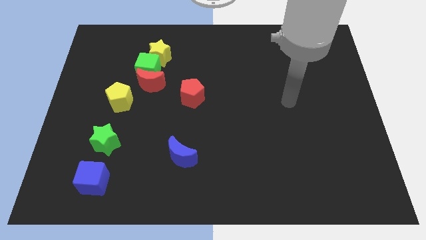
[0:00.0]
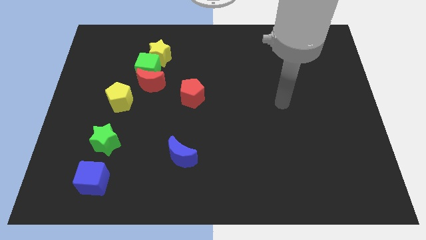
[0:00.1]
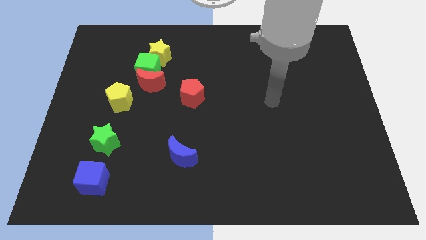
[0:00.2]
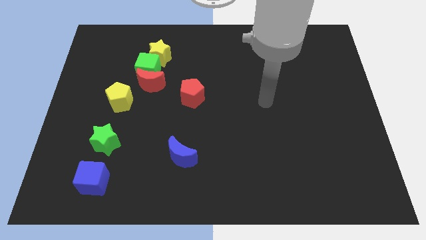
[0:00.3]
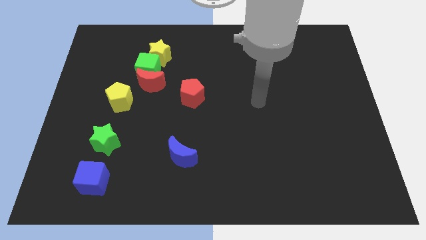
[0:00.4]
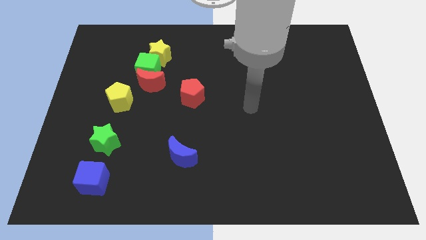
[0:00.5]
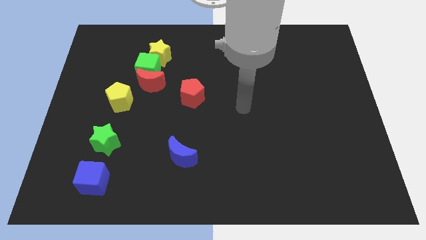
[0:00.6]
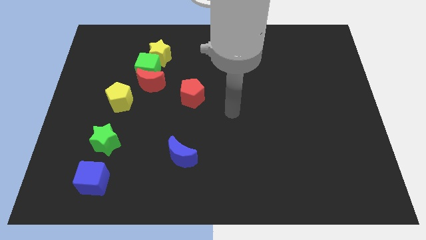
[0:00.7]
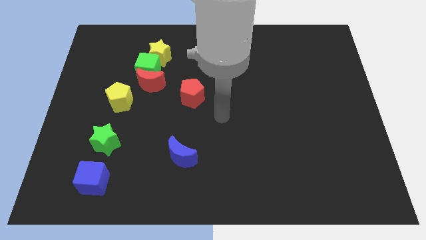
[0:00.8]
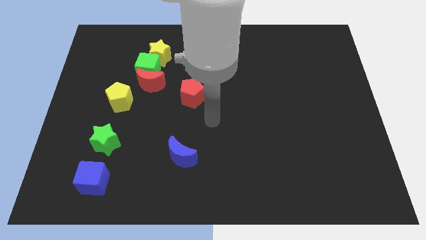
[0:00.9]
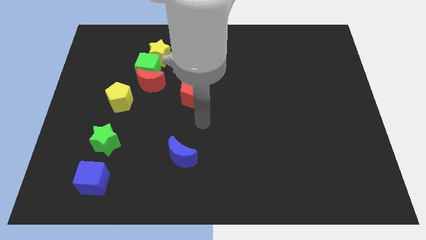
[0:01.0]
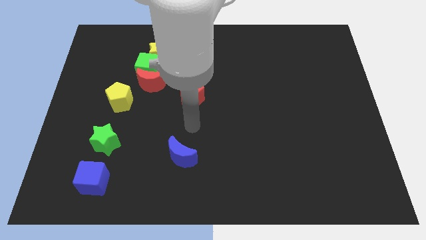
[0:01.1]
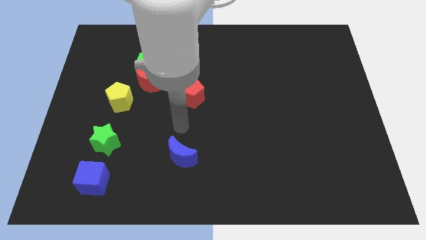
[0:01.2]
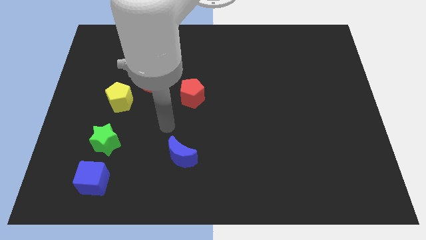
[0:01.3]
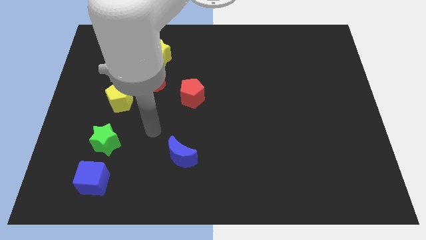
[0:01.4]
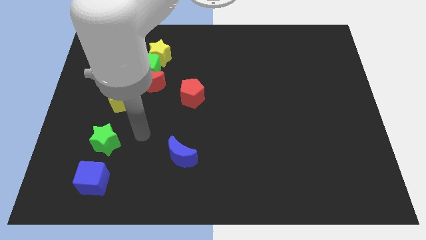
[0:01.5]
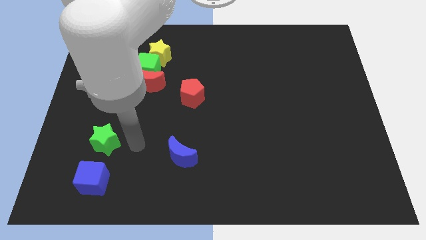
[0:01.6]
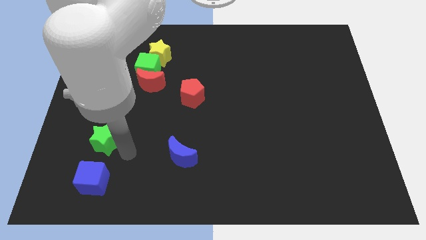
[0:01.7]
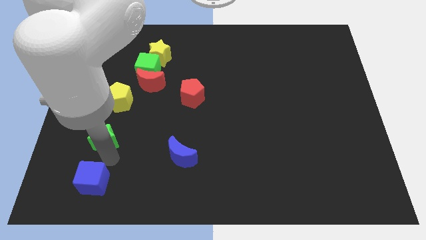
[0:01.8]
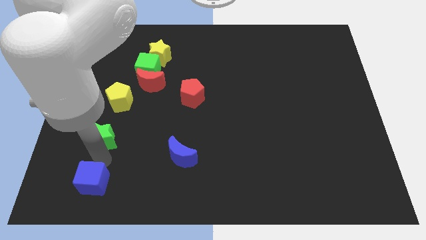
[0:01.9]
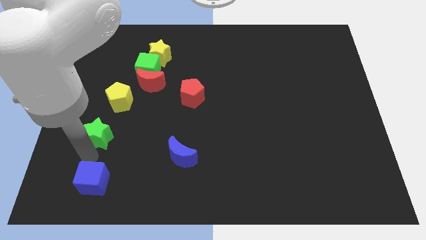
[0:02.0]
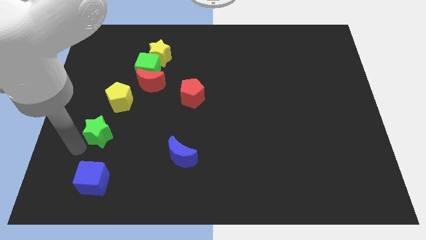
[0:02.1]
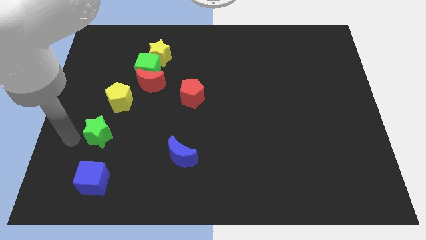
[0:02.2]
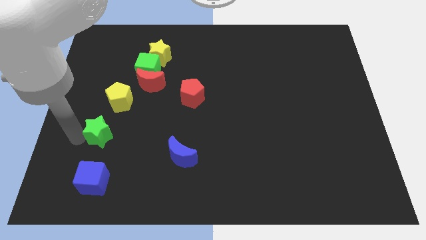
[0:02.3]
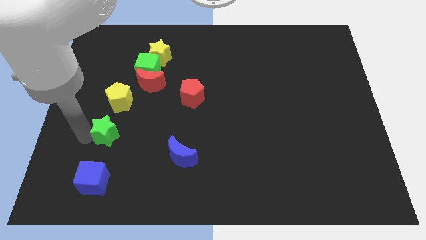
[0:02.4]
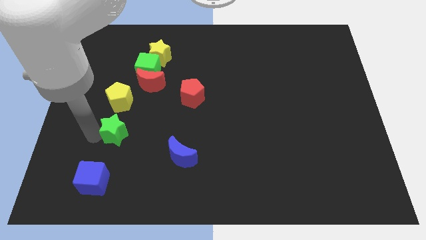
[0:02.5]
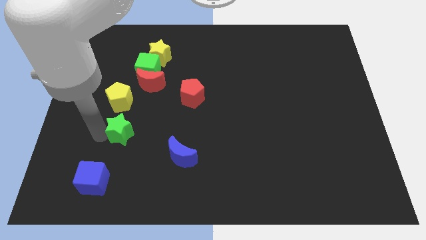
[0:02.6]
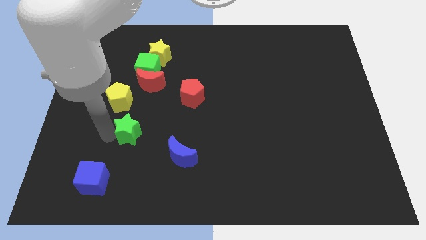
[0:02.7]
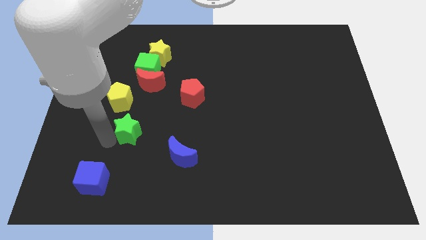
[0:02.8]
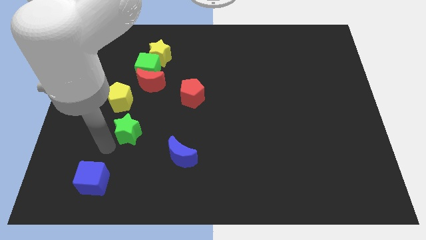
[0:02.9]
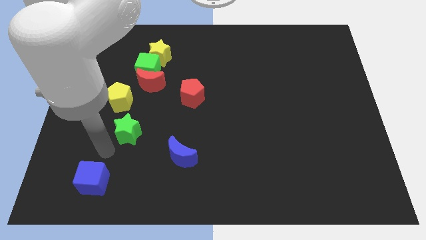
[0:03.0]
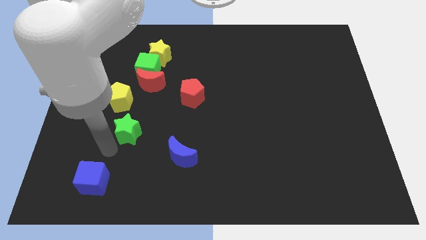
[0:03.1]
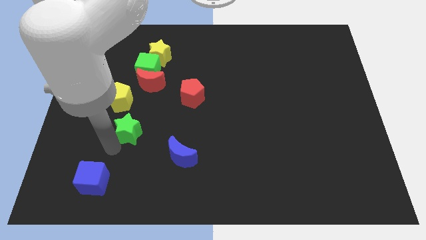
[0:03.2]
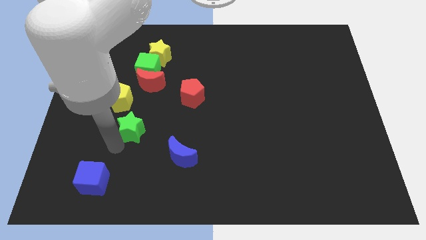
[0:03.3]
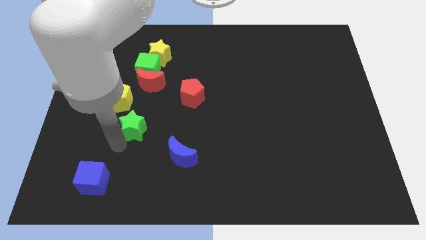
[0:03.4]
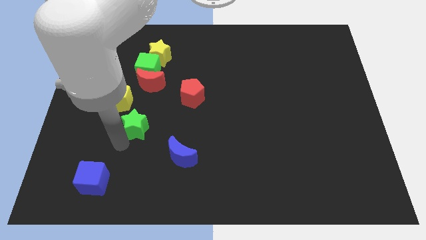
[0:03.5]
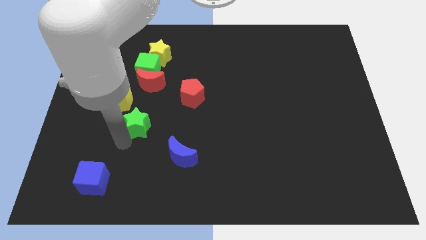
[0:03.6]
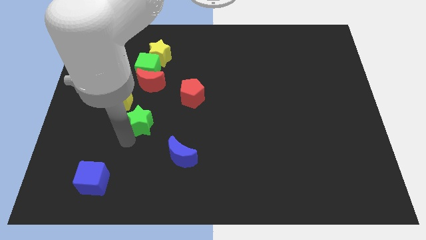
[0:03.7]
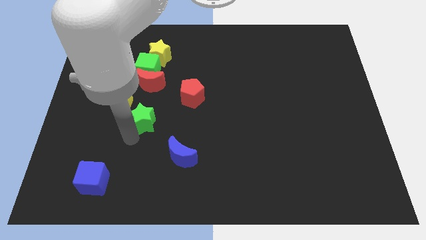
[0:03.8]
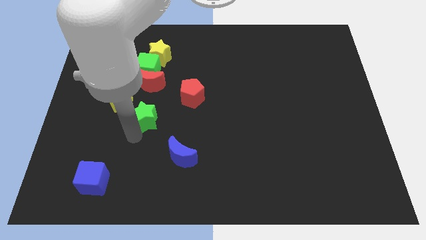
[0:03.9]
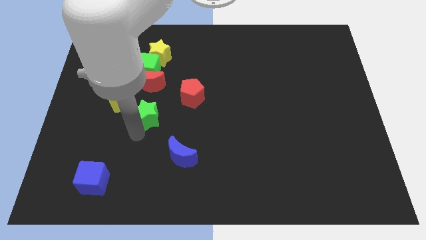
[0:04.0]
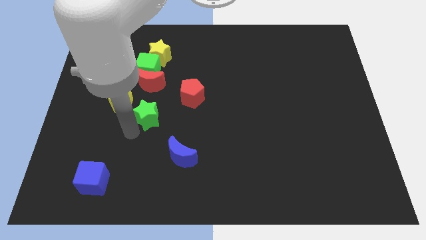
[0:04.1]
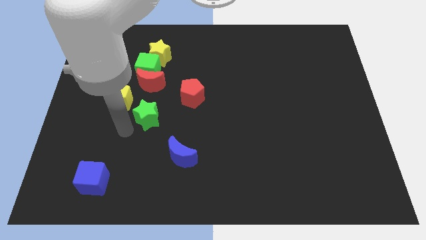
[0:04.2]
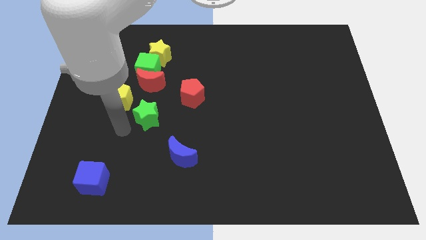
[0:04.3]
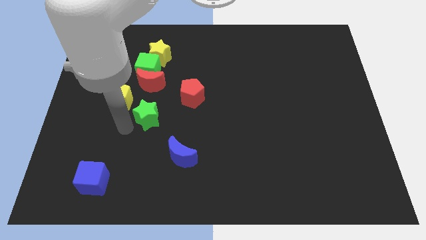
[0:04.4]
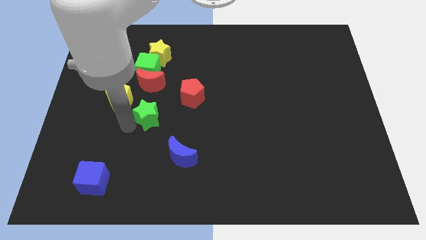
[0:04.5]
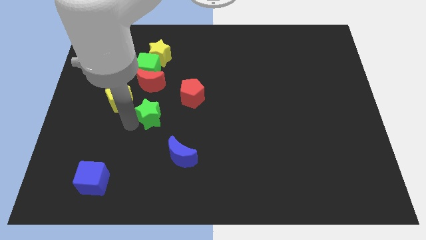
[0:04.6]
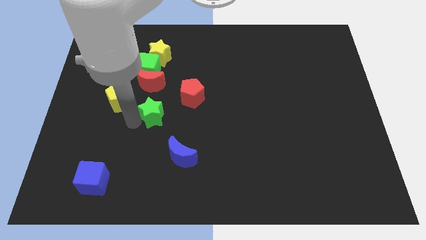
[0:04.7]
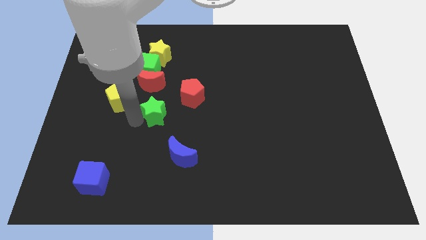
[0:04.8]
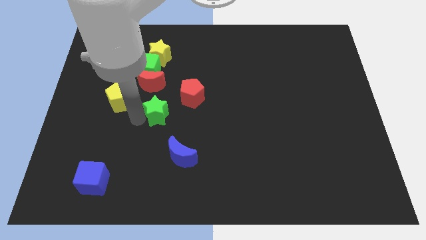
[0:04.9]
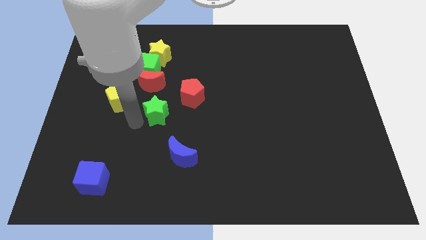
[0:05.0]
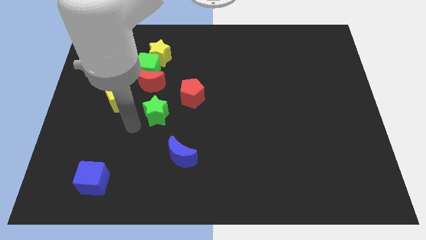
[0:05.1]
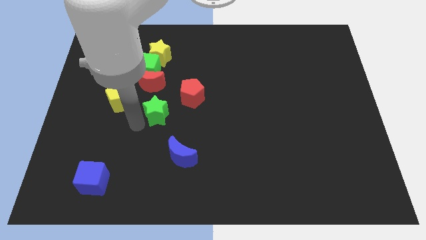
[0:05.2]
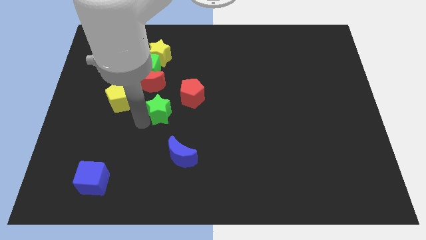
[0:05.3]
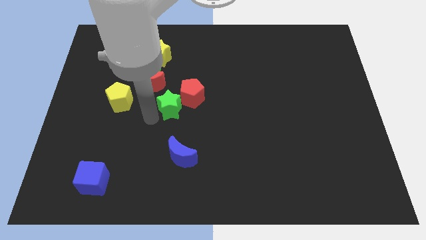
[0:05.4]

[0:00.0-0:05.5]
slide the green star next to the red pentagon

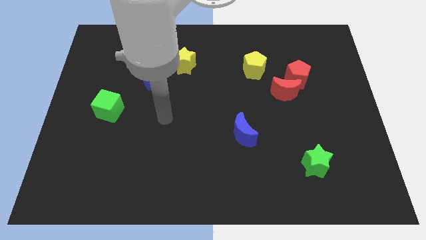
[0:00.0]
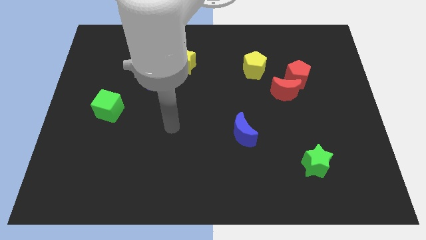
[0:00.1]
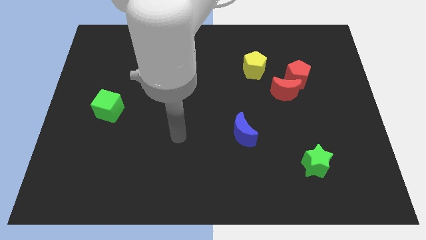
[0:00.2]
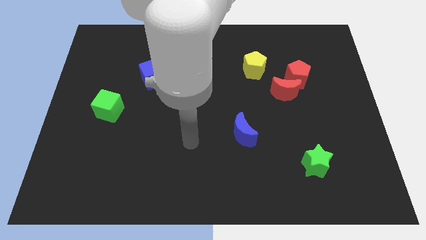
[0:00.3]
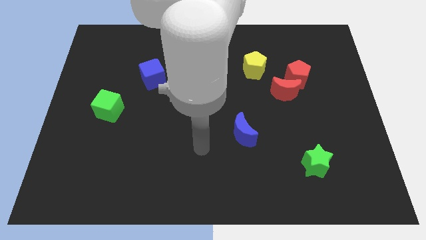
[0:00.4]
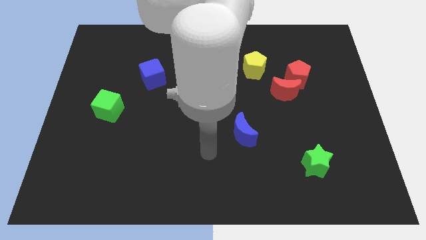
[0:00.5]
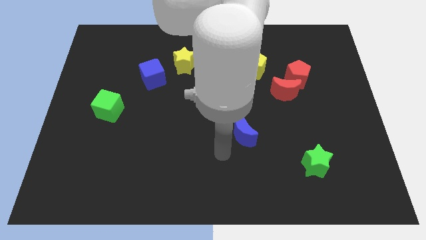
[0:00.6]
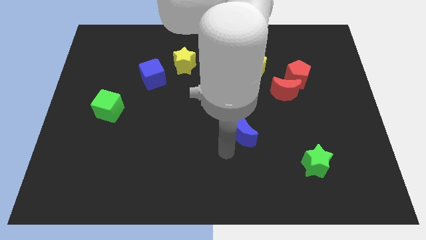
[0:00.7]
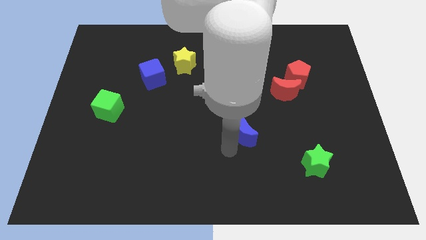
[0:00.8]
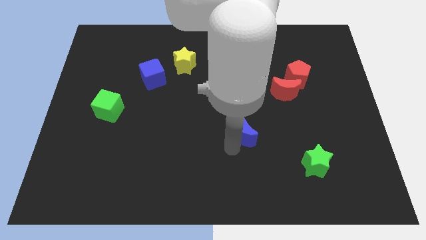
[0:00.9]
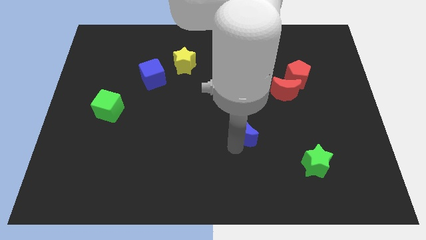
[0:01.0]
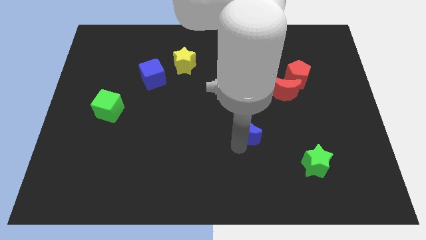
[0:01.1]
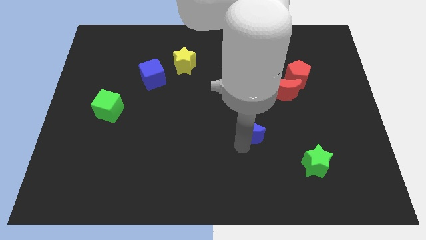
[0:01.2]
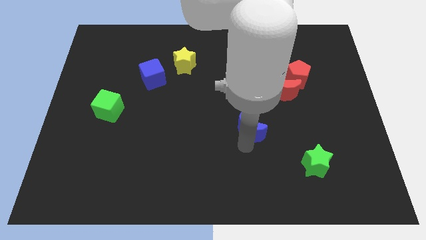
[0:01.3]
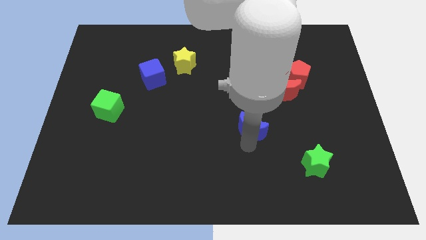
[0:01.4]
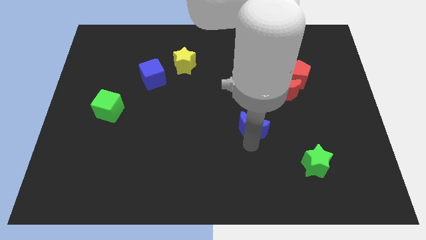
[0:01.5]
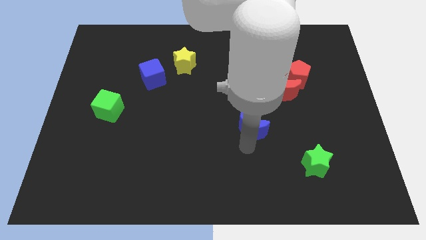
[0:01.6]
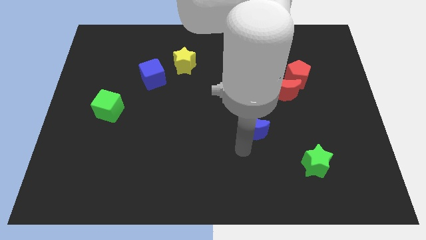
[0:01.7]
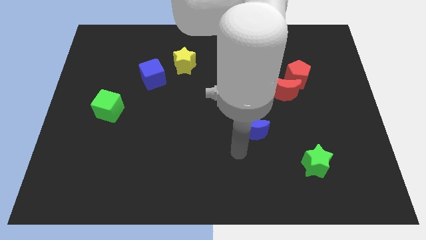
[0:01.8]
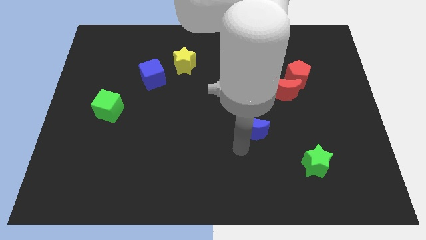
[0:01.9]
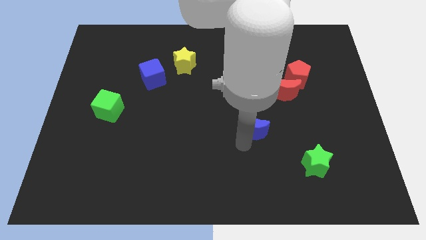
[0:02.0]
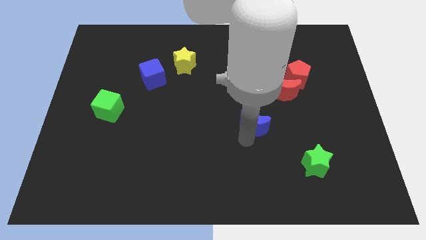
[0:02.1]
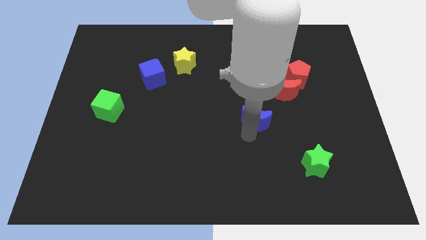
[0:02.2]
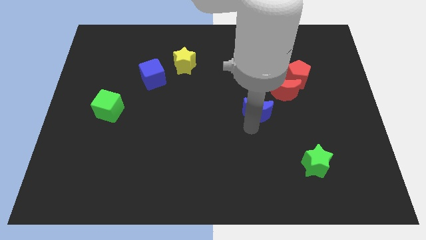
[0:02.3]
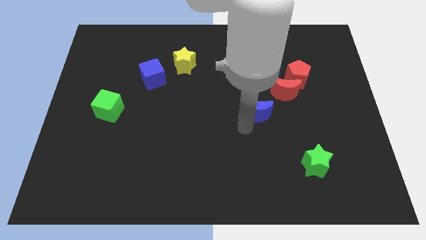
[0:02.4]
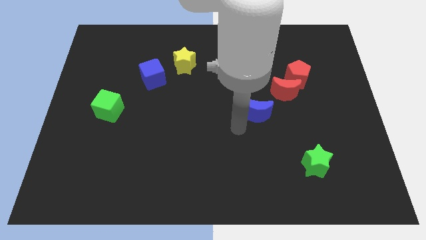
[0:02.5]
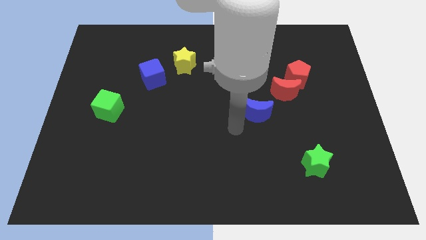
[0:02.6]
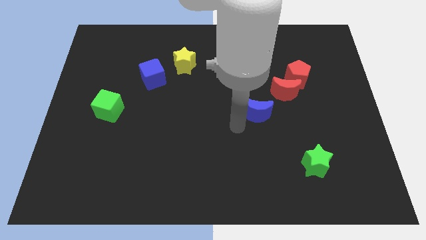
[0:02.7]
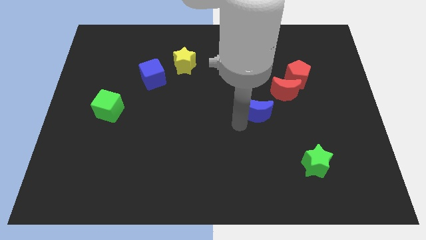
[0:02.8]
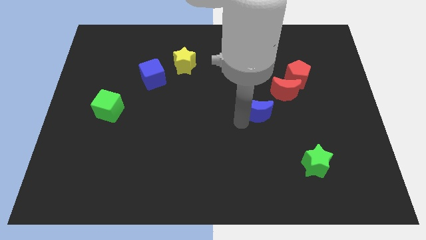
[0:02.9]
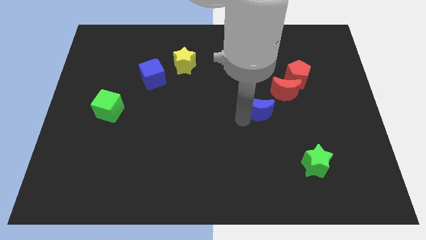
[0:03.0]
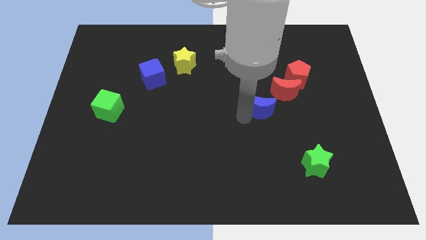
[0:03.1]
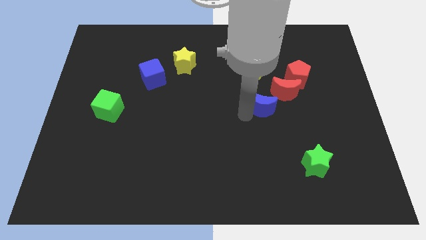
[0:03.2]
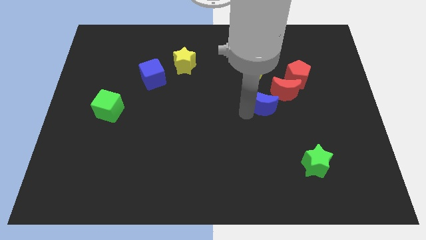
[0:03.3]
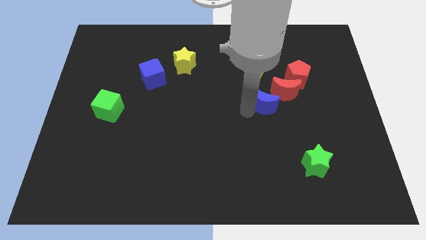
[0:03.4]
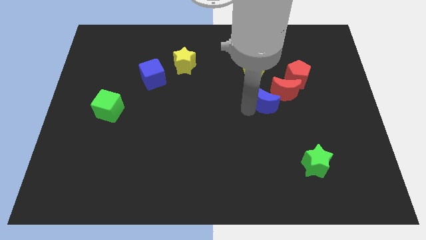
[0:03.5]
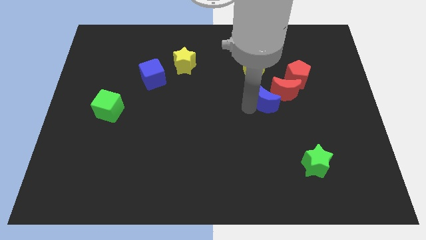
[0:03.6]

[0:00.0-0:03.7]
push the blue moon close to the red moon
